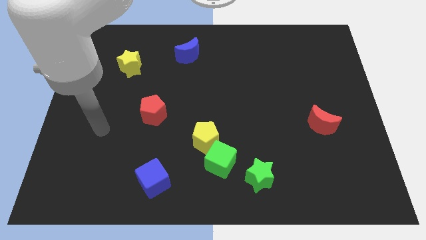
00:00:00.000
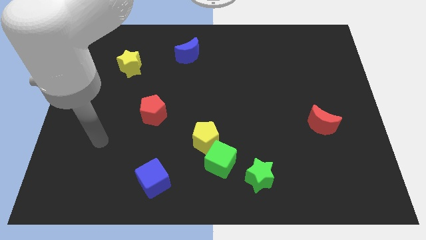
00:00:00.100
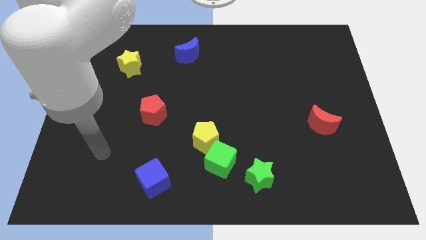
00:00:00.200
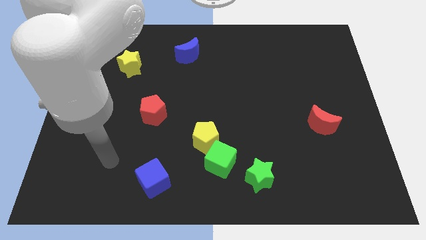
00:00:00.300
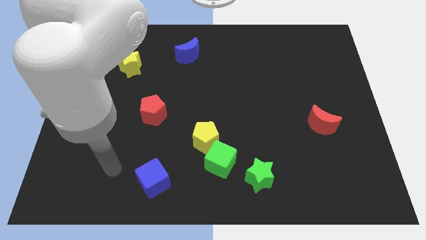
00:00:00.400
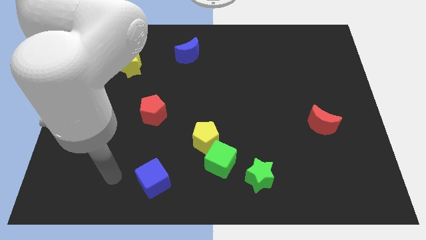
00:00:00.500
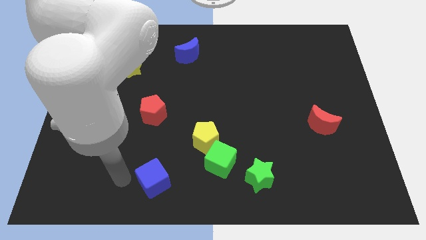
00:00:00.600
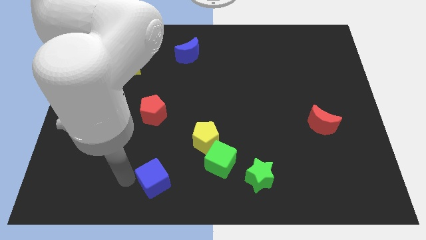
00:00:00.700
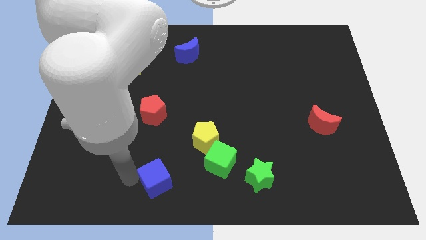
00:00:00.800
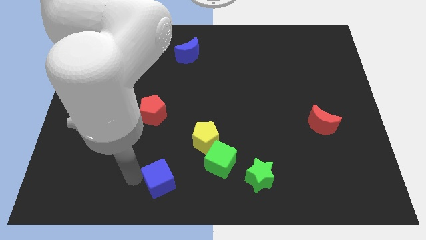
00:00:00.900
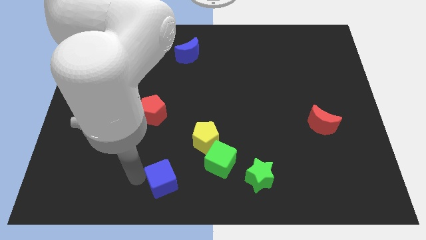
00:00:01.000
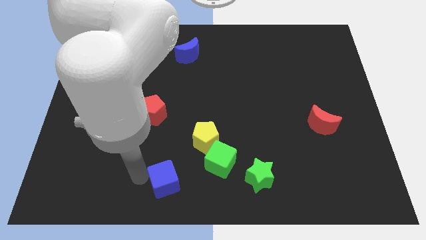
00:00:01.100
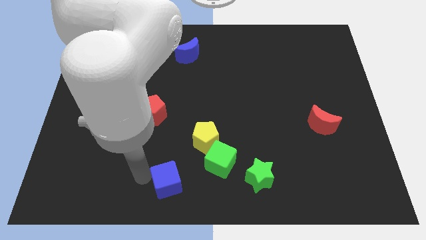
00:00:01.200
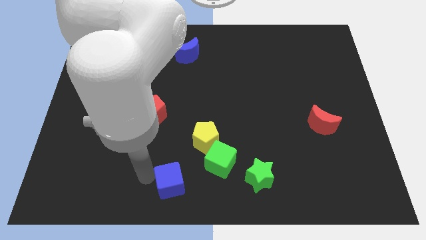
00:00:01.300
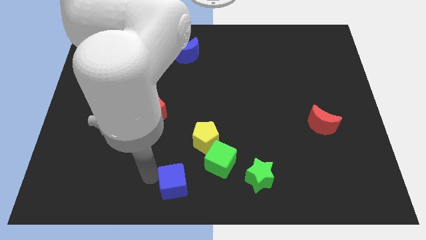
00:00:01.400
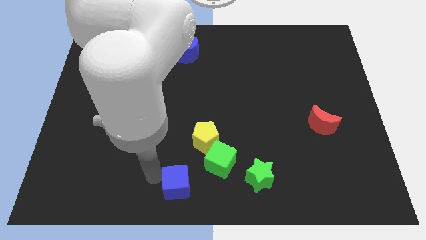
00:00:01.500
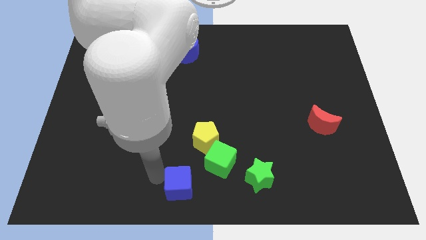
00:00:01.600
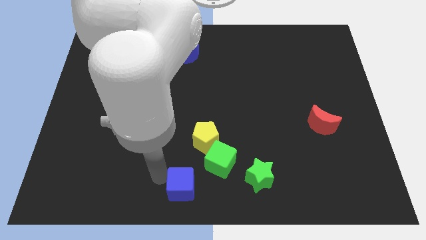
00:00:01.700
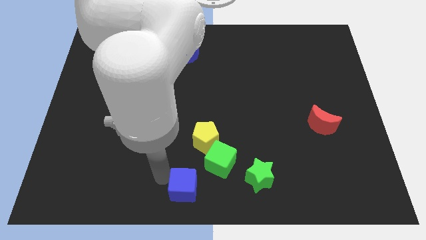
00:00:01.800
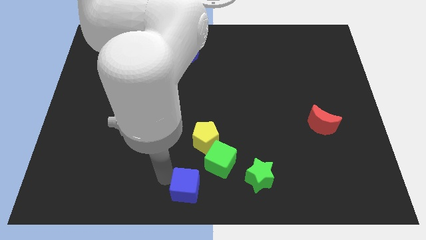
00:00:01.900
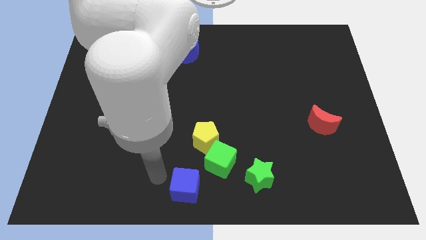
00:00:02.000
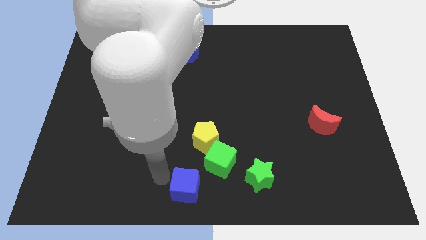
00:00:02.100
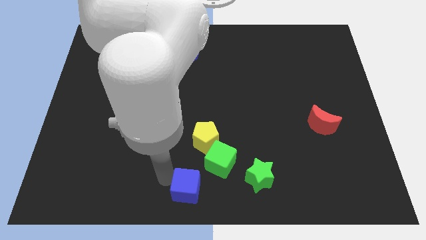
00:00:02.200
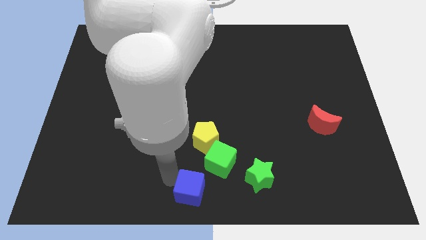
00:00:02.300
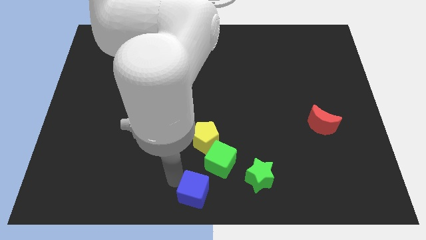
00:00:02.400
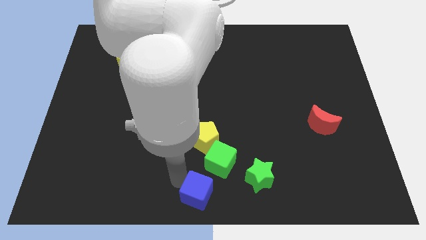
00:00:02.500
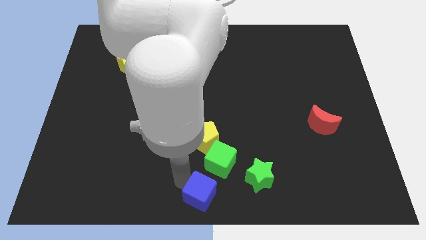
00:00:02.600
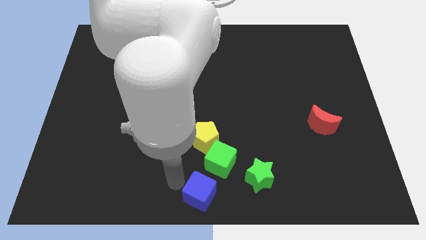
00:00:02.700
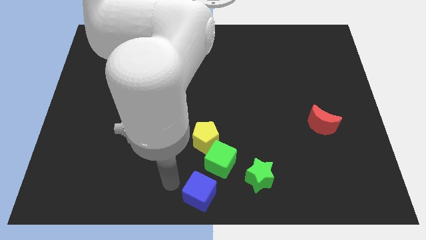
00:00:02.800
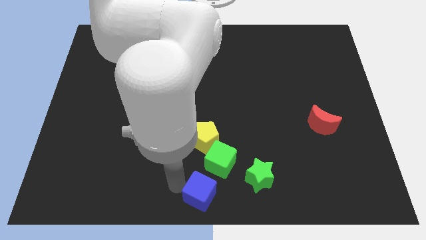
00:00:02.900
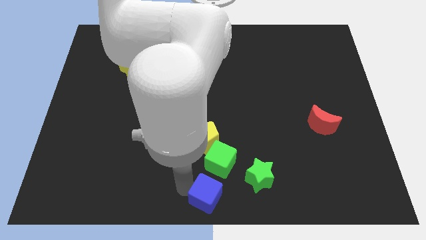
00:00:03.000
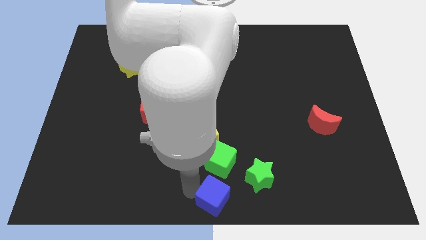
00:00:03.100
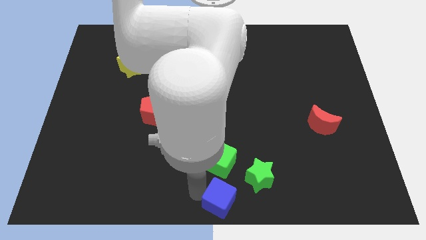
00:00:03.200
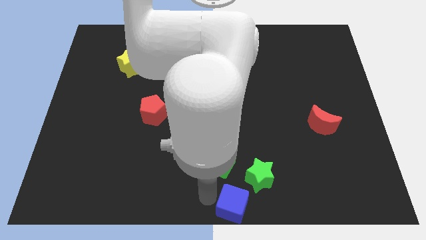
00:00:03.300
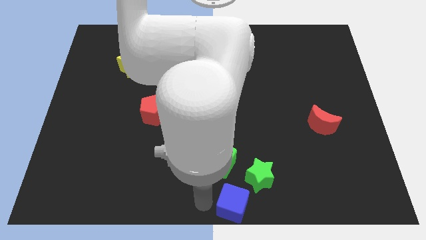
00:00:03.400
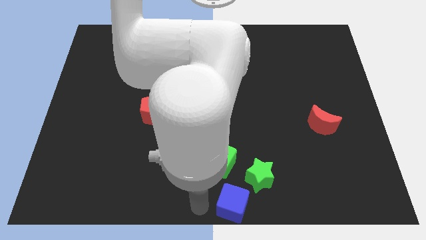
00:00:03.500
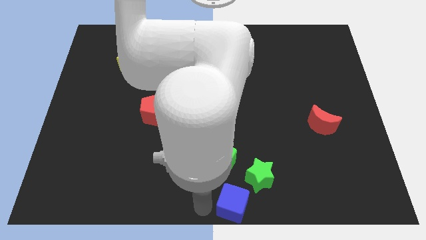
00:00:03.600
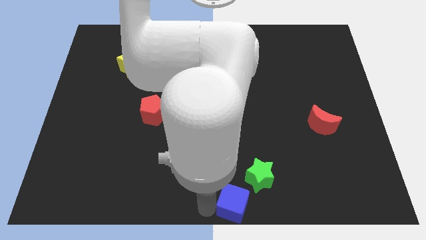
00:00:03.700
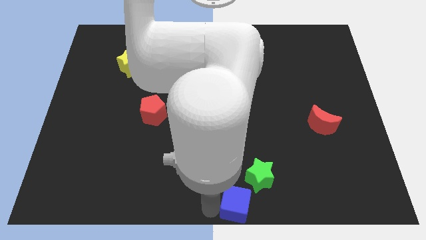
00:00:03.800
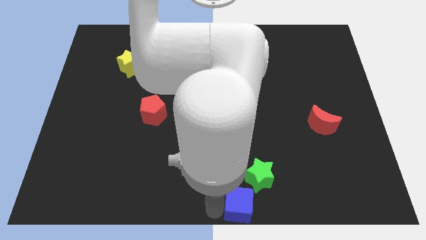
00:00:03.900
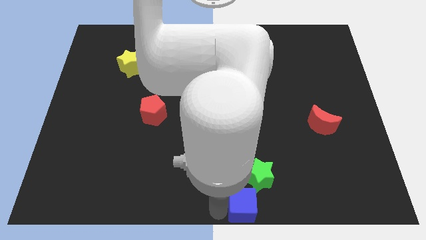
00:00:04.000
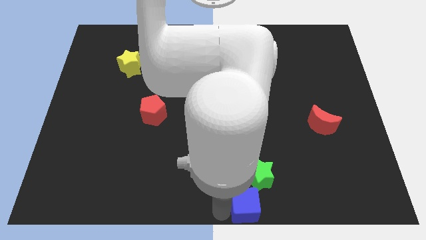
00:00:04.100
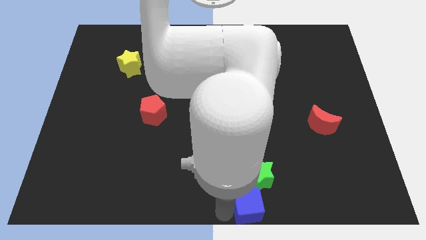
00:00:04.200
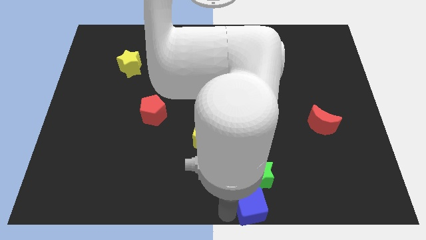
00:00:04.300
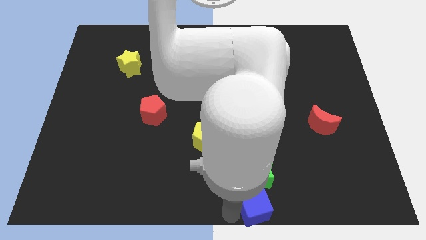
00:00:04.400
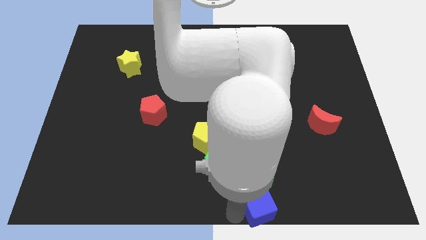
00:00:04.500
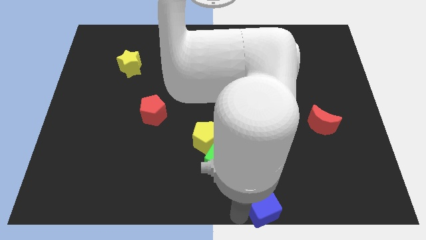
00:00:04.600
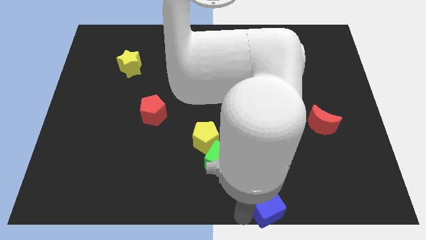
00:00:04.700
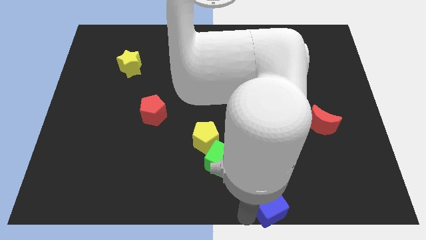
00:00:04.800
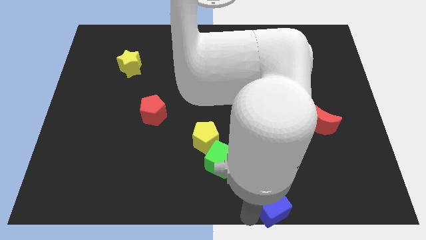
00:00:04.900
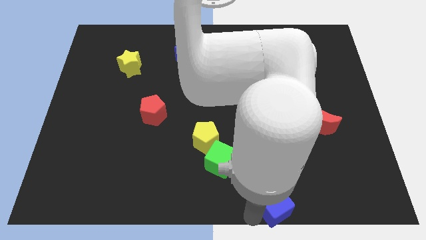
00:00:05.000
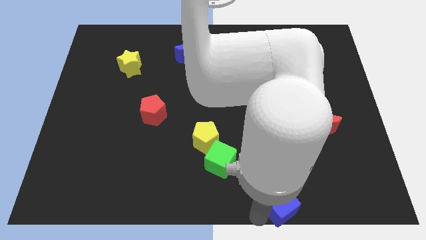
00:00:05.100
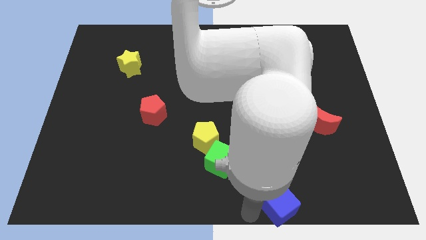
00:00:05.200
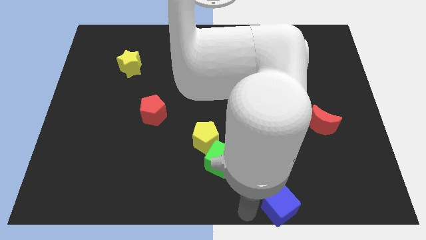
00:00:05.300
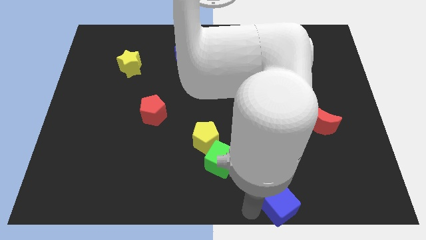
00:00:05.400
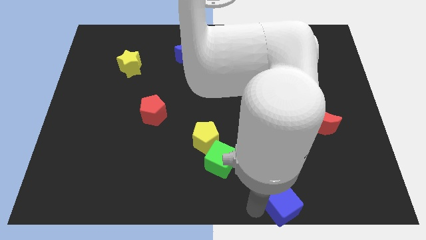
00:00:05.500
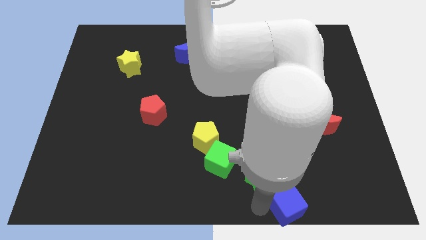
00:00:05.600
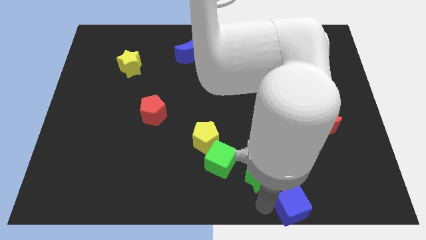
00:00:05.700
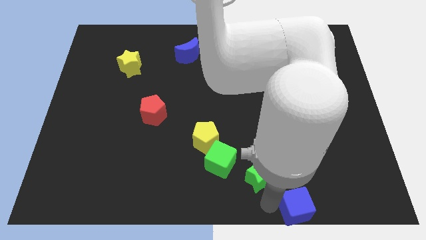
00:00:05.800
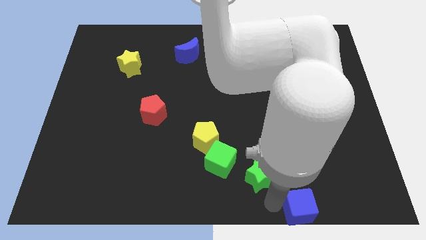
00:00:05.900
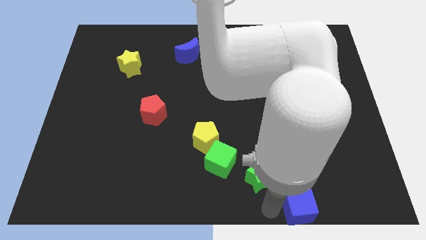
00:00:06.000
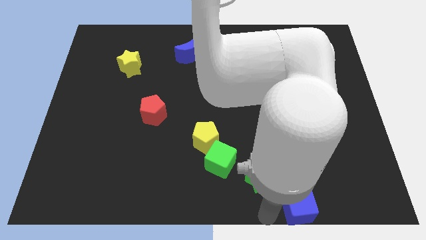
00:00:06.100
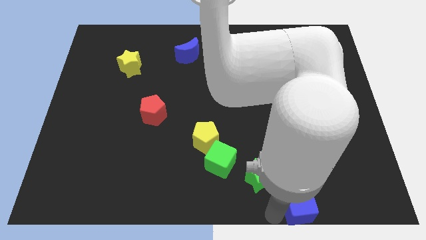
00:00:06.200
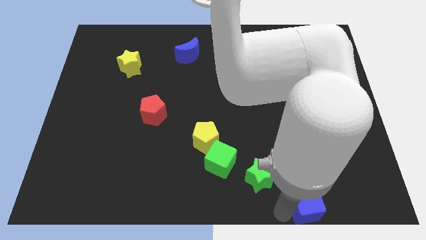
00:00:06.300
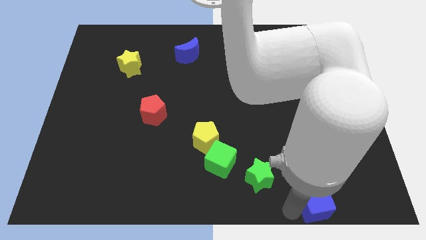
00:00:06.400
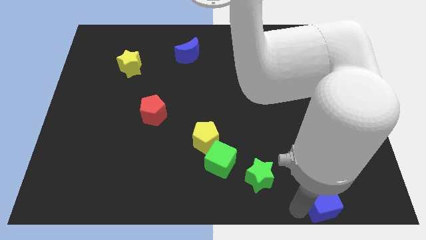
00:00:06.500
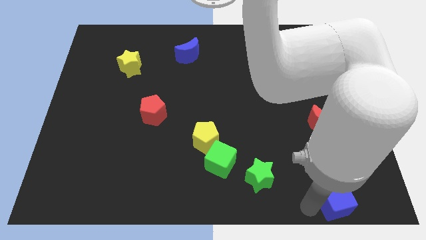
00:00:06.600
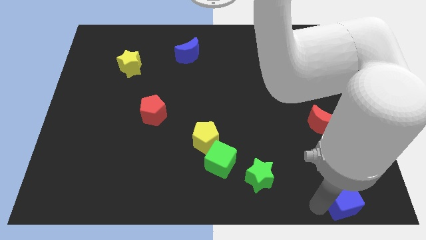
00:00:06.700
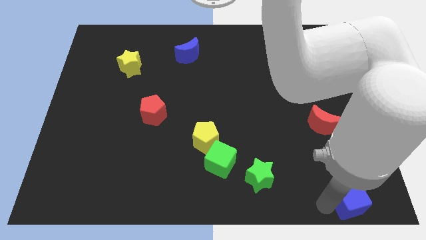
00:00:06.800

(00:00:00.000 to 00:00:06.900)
slide the blue cube to the lower right corner

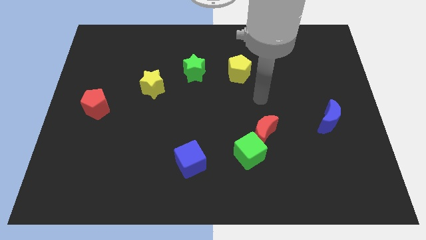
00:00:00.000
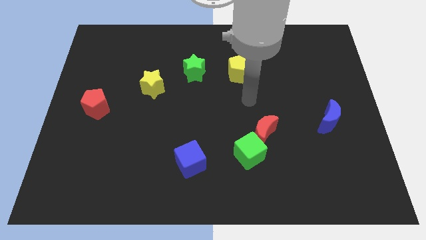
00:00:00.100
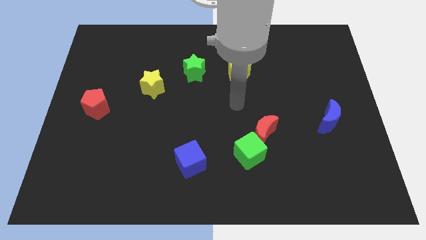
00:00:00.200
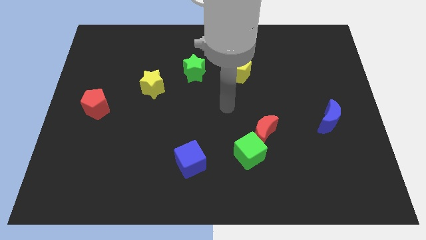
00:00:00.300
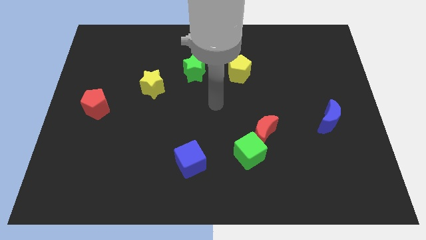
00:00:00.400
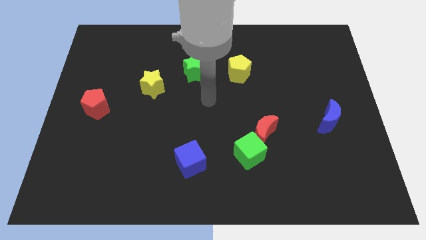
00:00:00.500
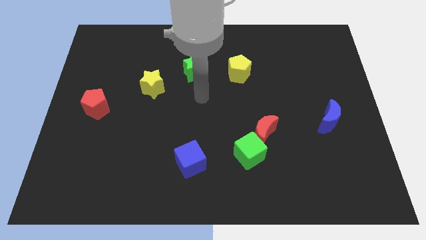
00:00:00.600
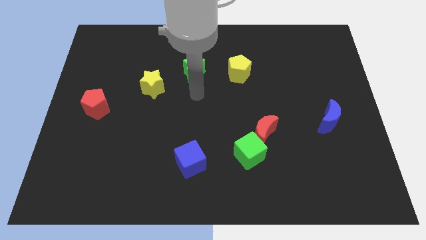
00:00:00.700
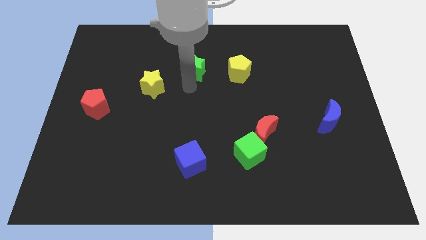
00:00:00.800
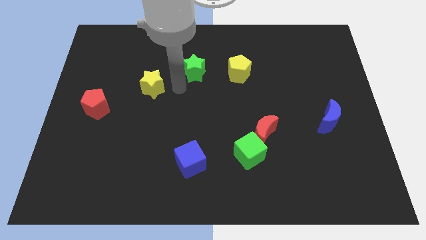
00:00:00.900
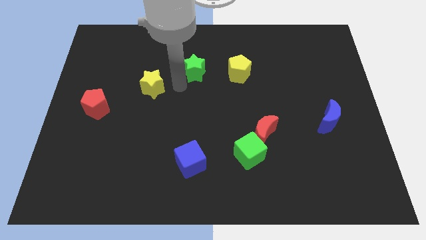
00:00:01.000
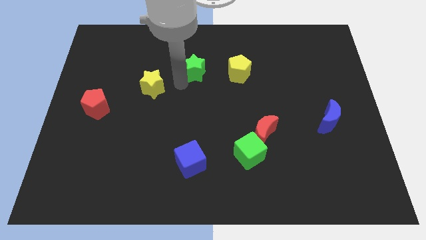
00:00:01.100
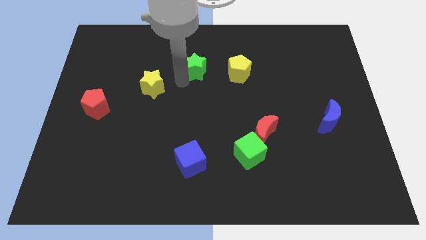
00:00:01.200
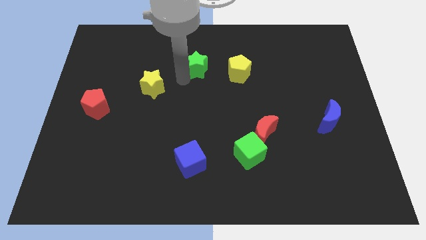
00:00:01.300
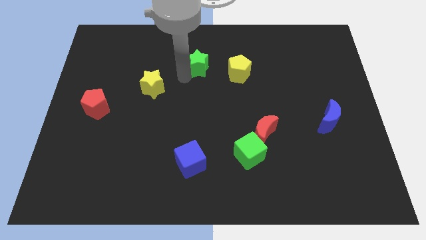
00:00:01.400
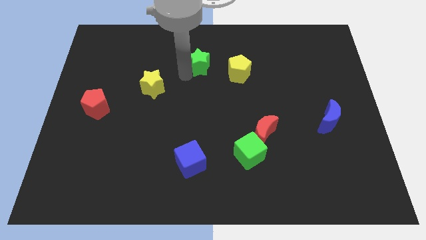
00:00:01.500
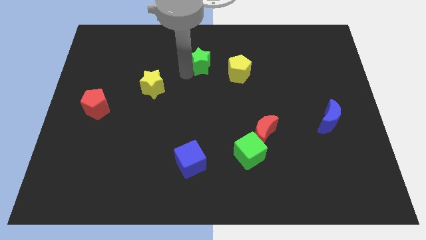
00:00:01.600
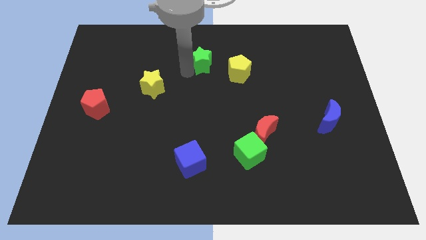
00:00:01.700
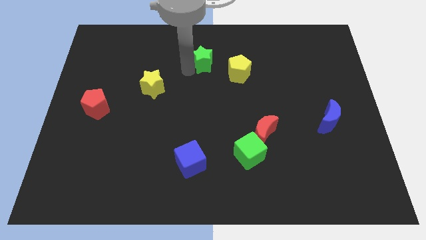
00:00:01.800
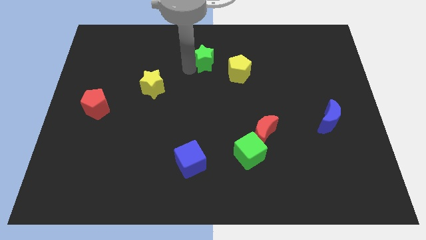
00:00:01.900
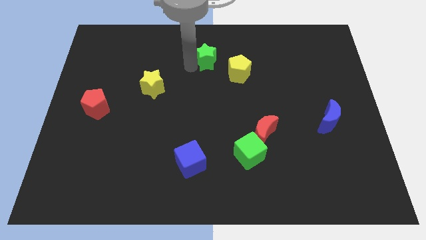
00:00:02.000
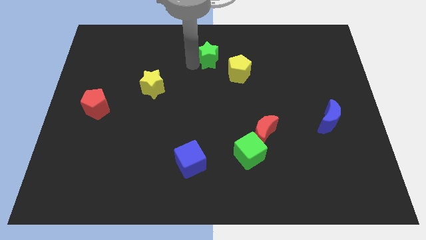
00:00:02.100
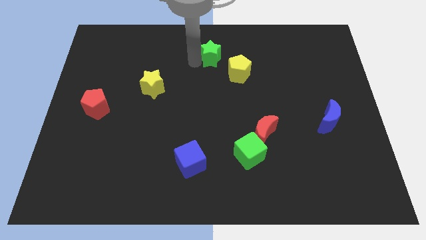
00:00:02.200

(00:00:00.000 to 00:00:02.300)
push the green star to the towards your base
